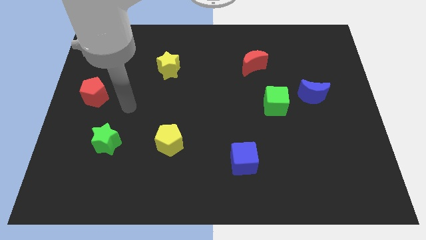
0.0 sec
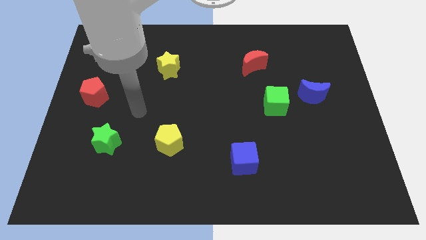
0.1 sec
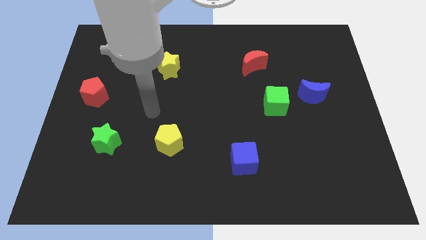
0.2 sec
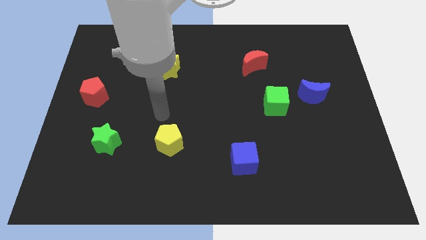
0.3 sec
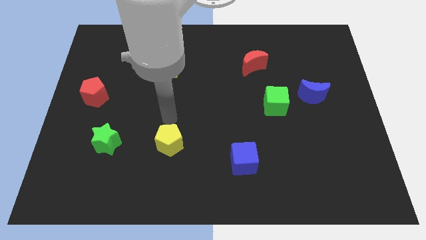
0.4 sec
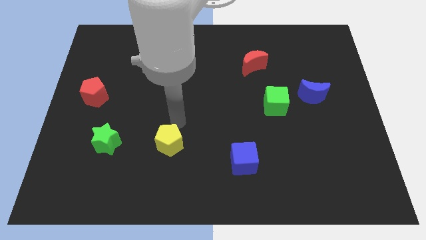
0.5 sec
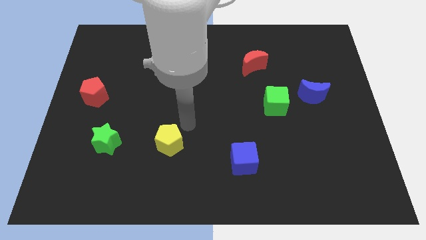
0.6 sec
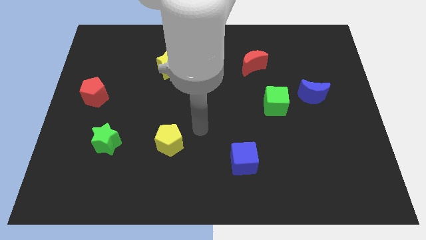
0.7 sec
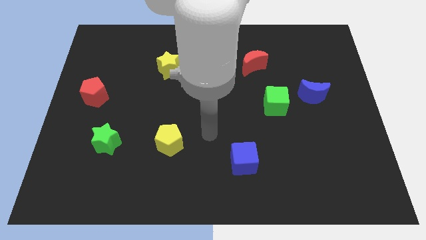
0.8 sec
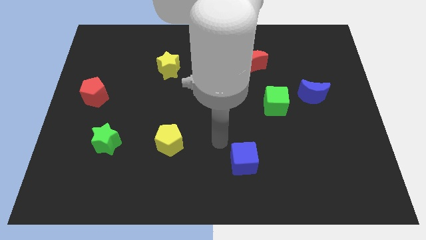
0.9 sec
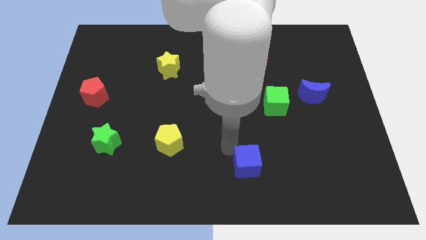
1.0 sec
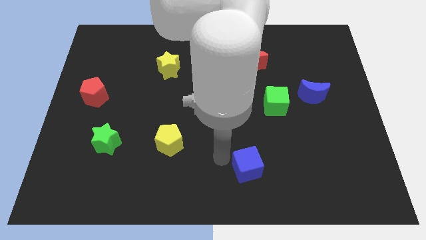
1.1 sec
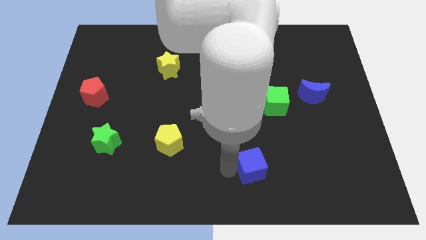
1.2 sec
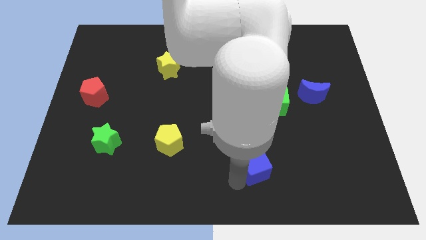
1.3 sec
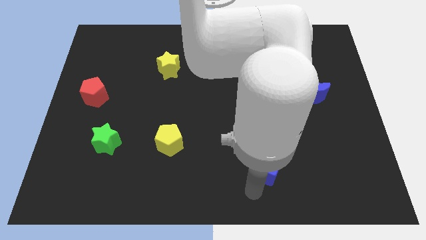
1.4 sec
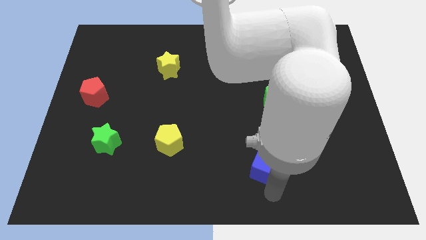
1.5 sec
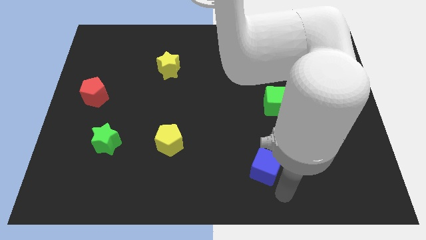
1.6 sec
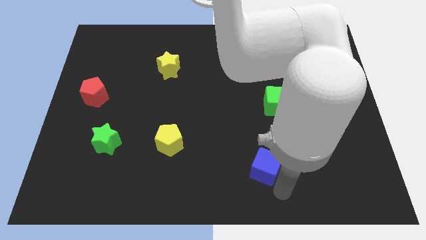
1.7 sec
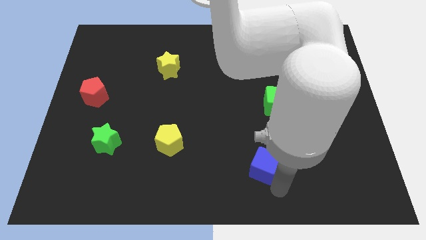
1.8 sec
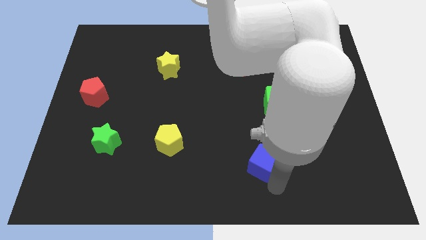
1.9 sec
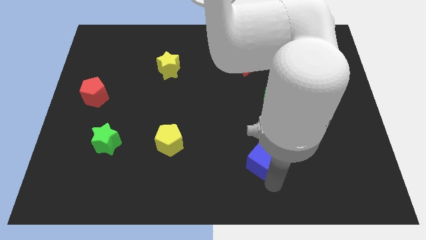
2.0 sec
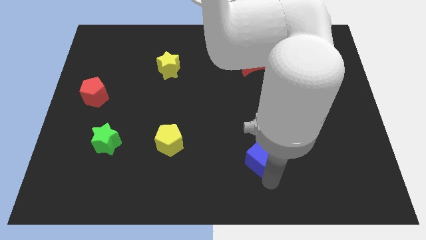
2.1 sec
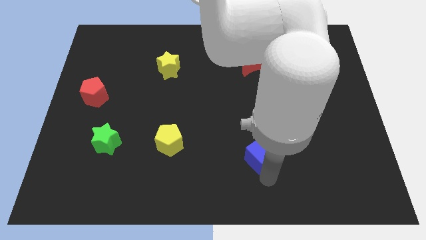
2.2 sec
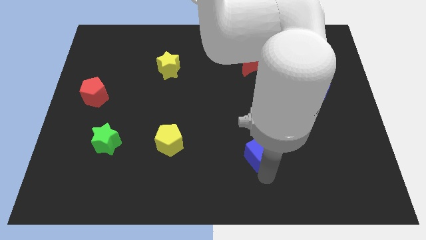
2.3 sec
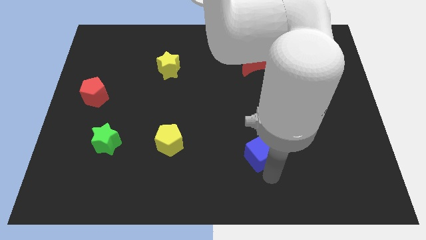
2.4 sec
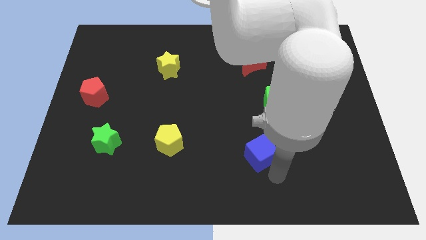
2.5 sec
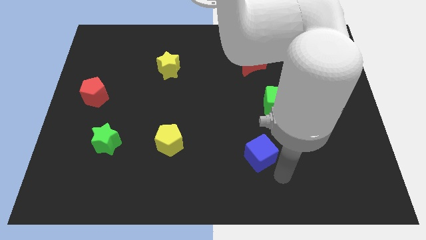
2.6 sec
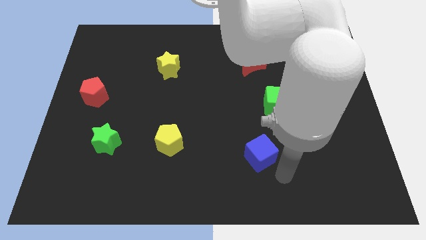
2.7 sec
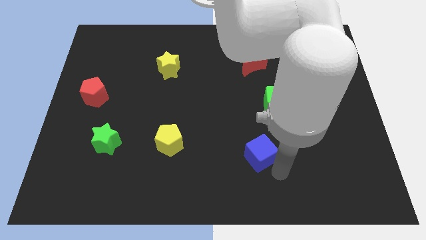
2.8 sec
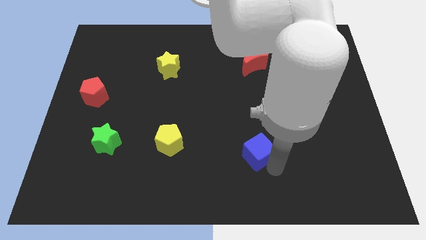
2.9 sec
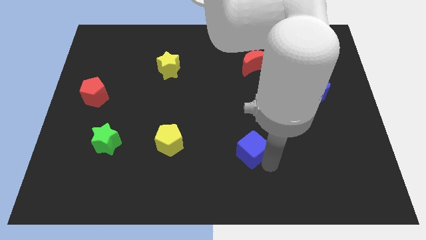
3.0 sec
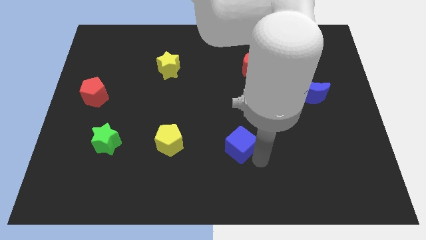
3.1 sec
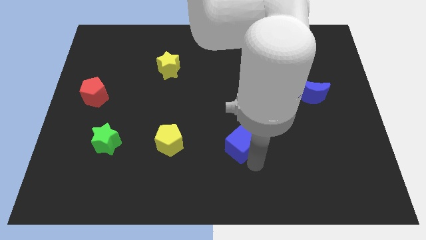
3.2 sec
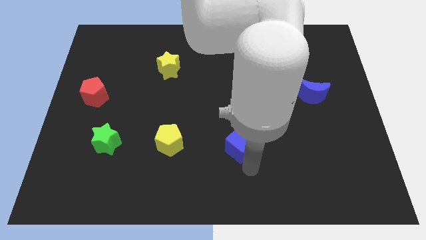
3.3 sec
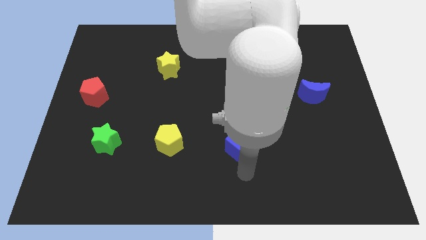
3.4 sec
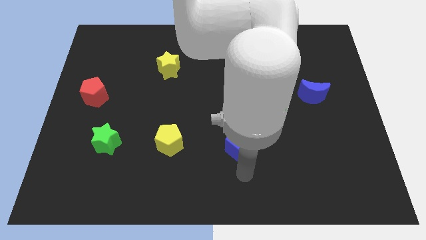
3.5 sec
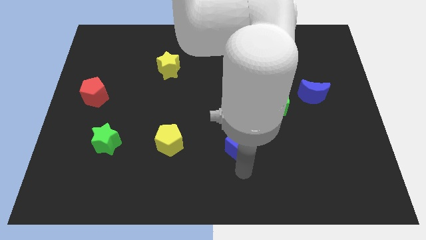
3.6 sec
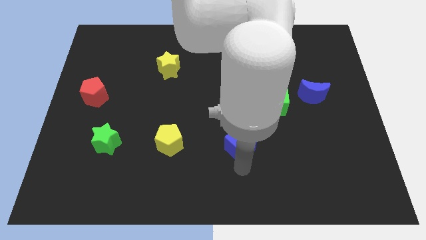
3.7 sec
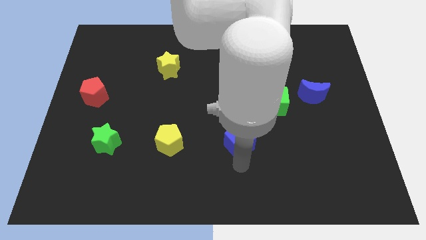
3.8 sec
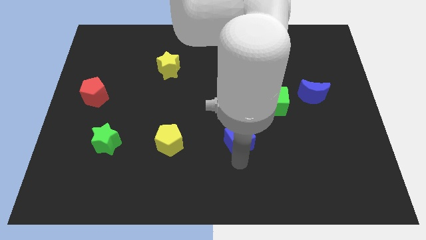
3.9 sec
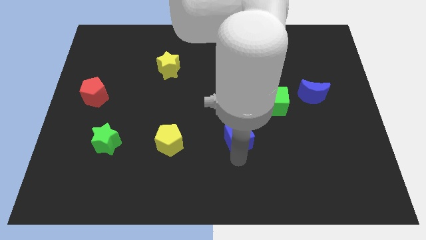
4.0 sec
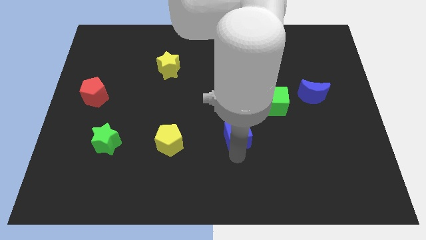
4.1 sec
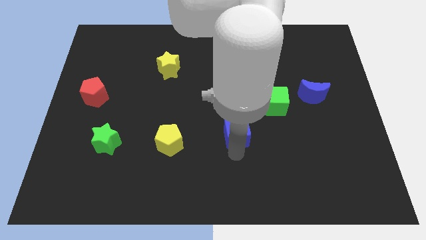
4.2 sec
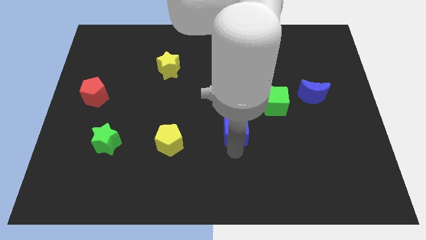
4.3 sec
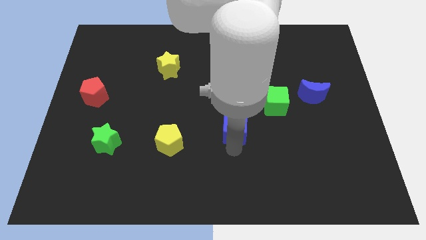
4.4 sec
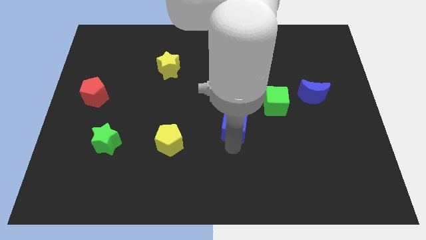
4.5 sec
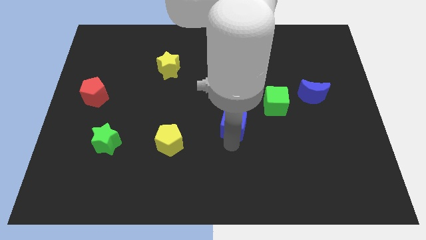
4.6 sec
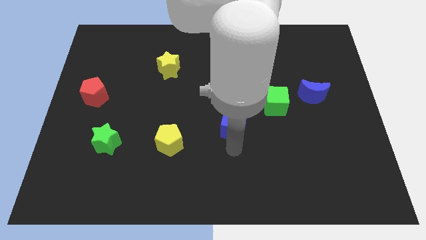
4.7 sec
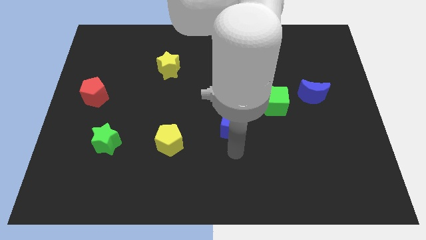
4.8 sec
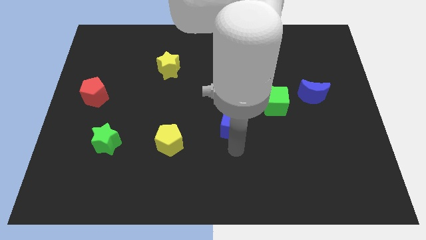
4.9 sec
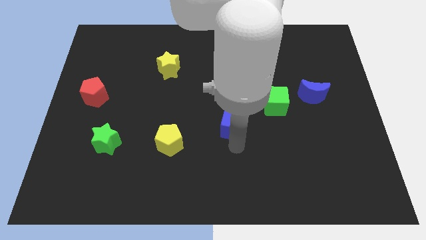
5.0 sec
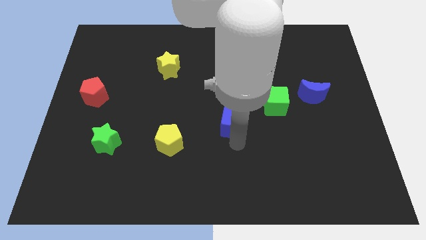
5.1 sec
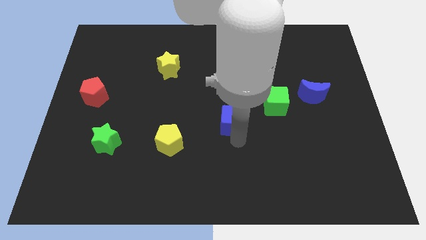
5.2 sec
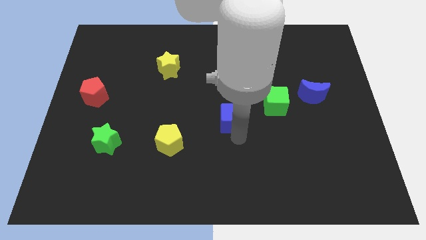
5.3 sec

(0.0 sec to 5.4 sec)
move the blue cube to the left of the green cube

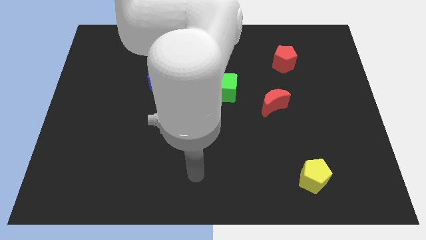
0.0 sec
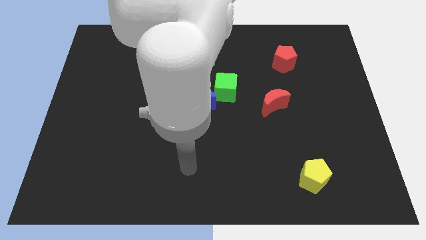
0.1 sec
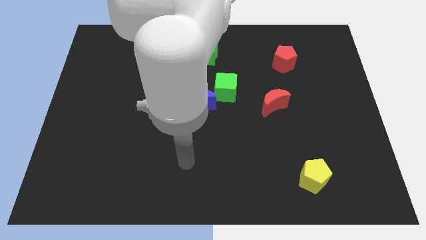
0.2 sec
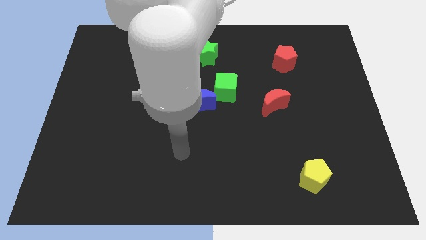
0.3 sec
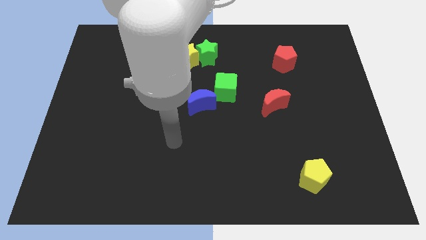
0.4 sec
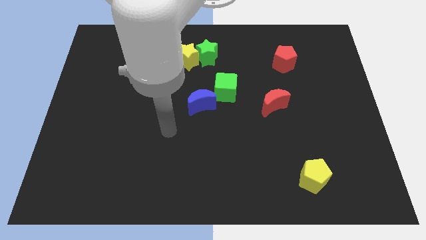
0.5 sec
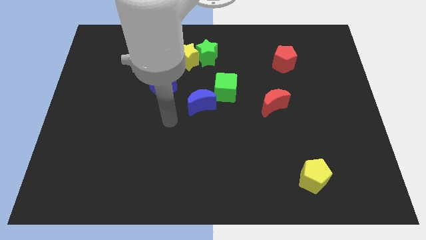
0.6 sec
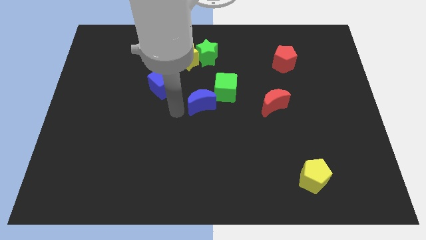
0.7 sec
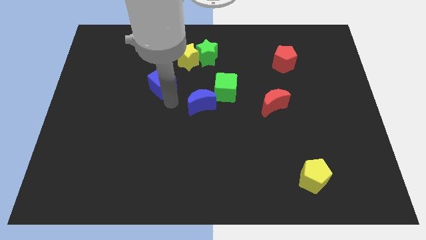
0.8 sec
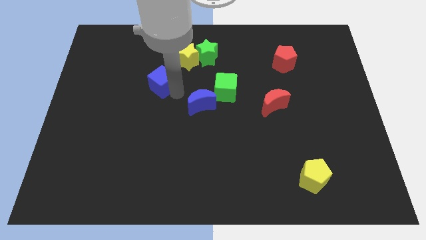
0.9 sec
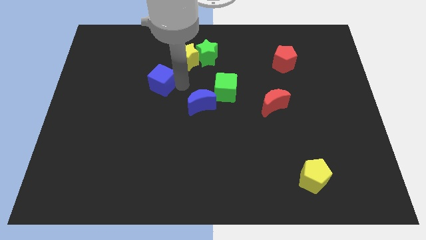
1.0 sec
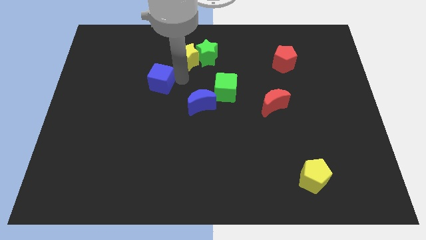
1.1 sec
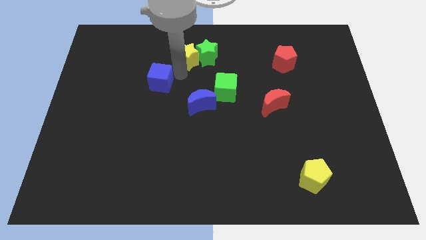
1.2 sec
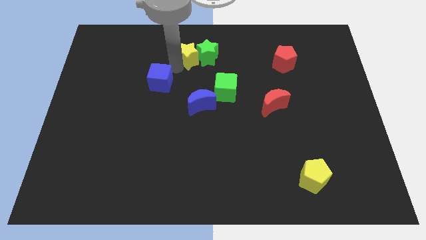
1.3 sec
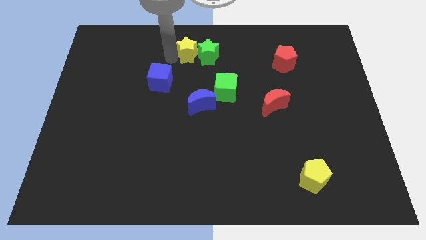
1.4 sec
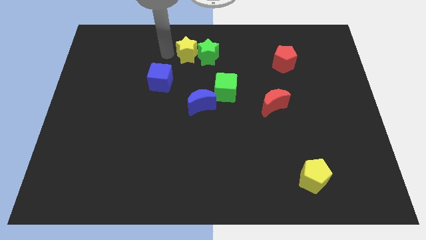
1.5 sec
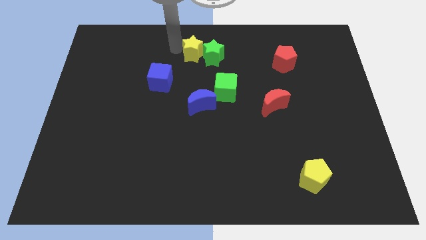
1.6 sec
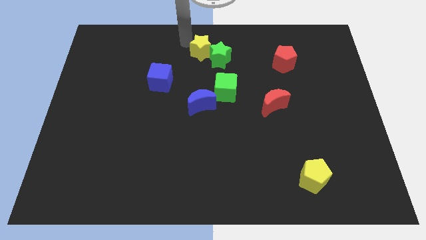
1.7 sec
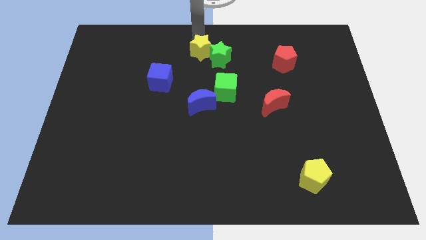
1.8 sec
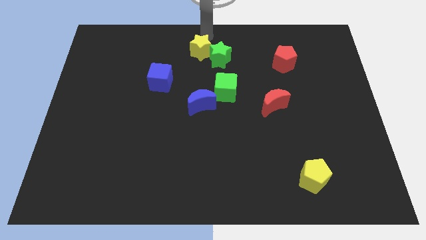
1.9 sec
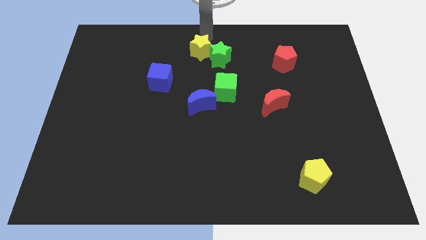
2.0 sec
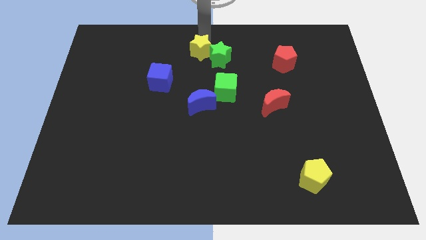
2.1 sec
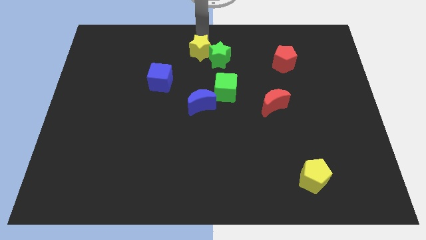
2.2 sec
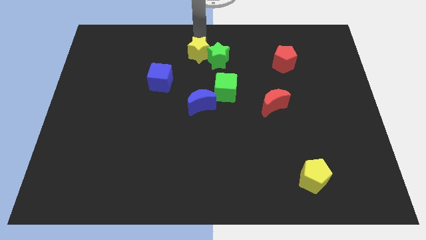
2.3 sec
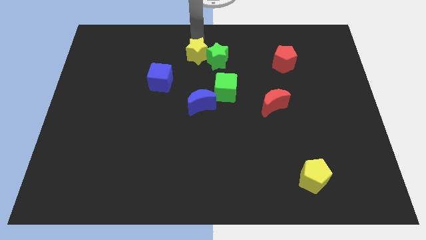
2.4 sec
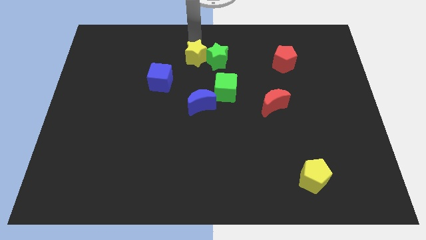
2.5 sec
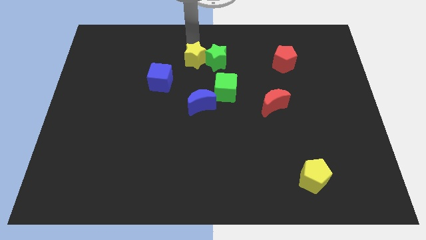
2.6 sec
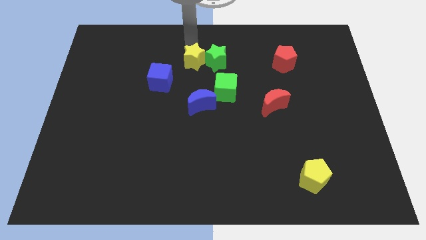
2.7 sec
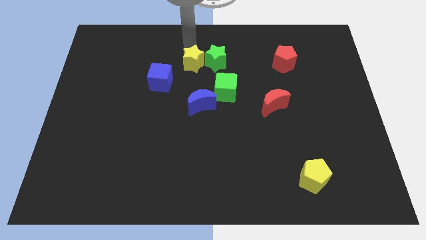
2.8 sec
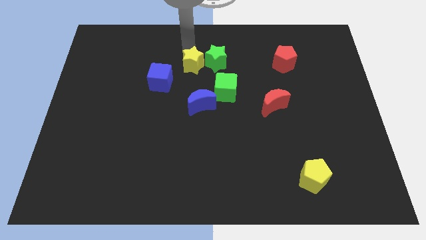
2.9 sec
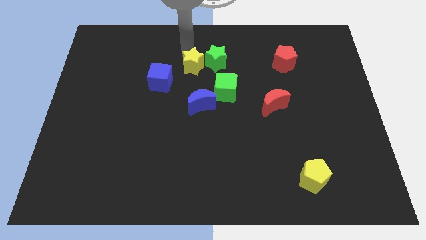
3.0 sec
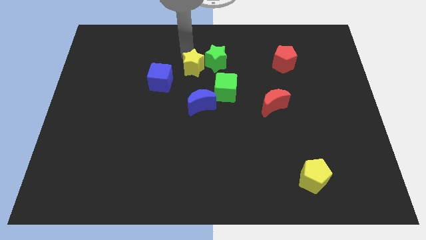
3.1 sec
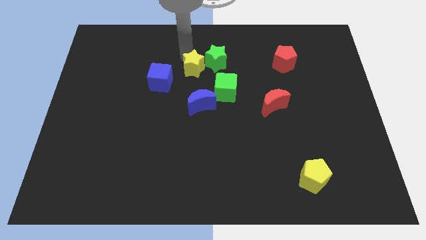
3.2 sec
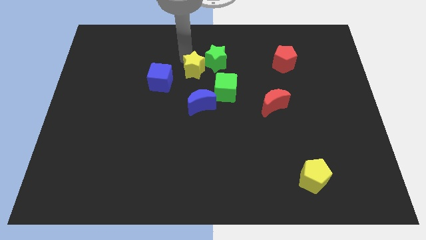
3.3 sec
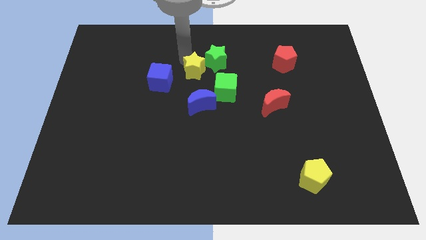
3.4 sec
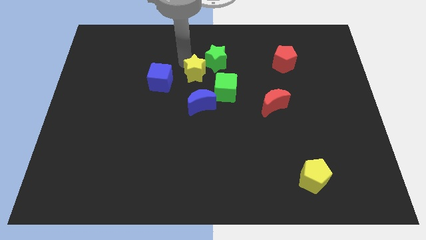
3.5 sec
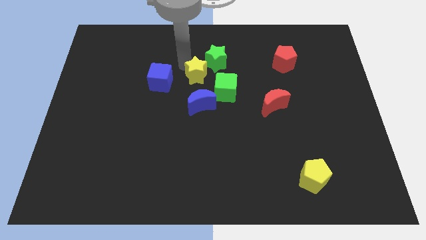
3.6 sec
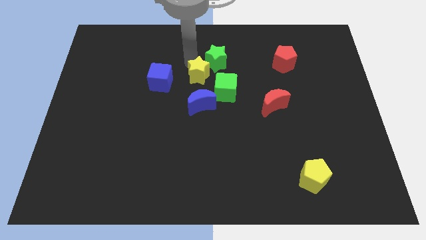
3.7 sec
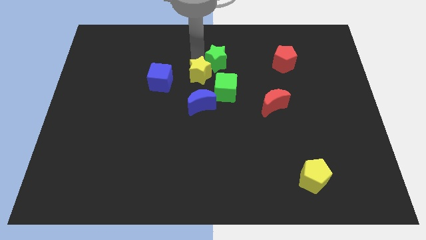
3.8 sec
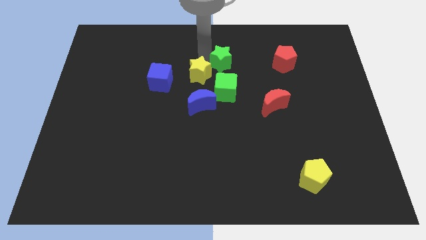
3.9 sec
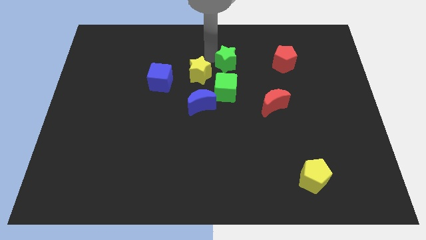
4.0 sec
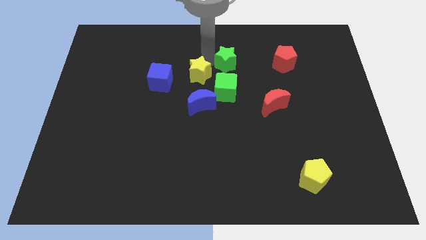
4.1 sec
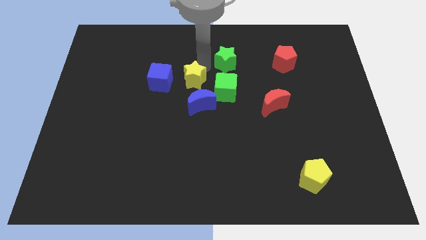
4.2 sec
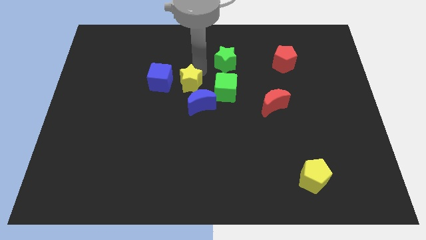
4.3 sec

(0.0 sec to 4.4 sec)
move the yellow star diagonally down and to the right of the blue cube
